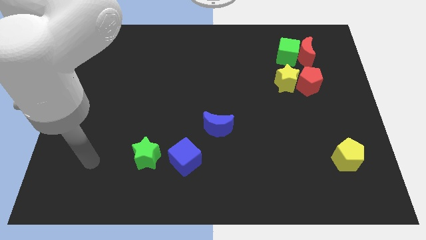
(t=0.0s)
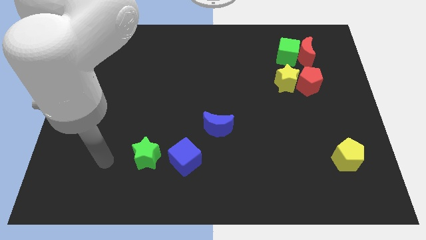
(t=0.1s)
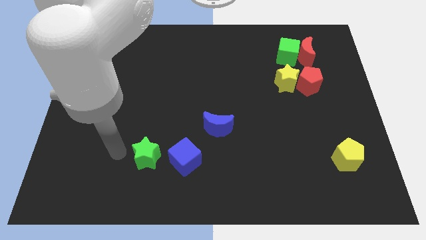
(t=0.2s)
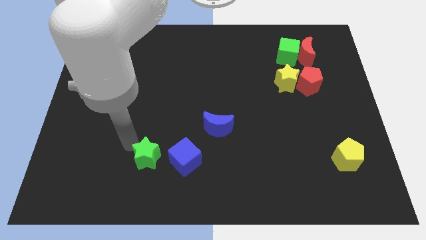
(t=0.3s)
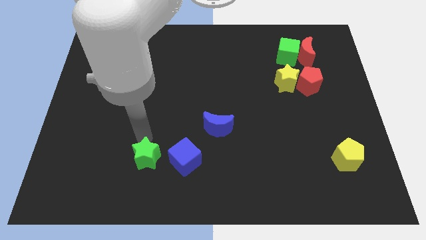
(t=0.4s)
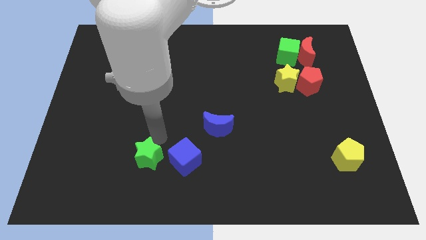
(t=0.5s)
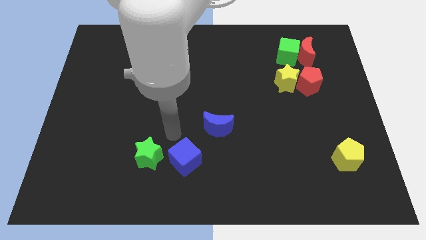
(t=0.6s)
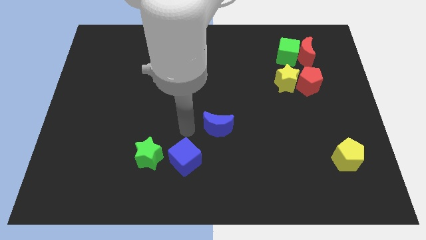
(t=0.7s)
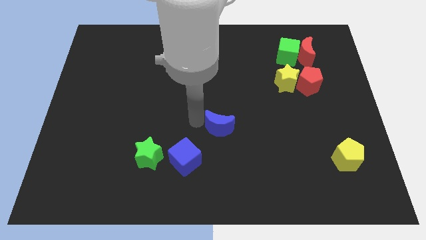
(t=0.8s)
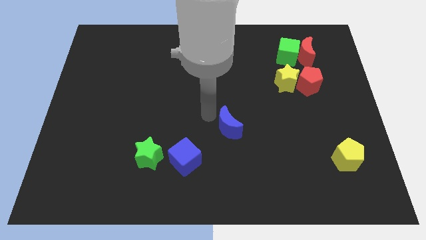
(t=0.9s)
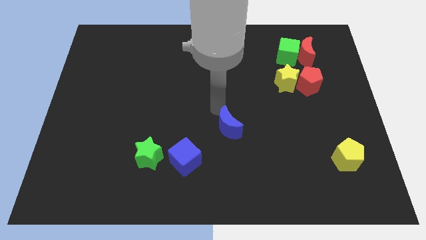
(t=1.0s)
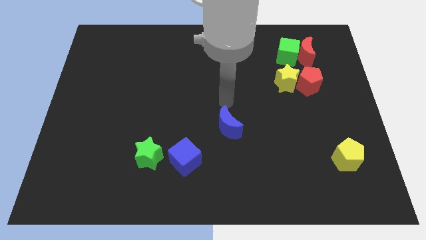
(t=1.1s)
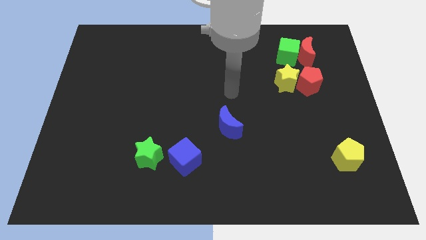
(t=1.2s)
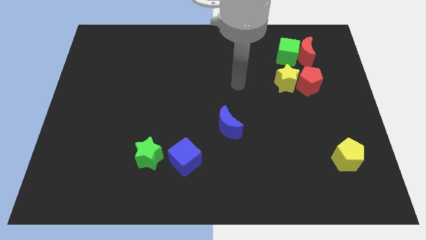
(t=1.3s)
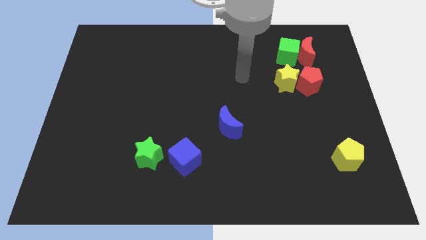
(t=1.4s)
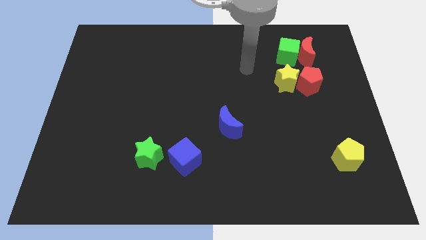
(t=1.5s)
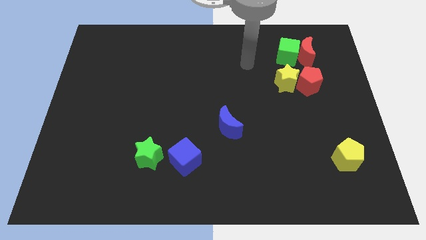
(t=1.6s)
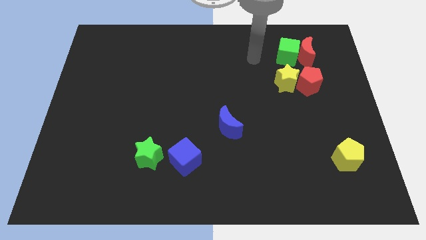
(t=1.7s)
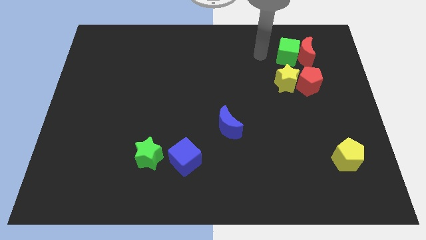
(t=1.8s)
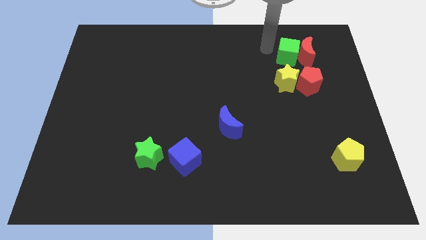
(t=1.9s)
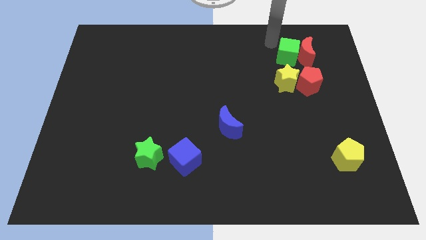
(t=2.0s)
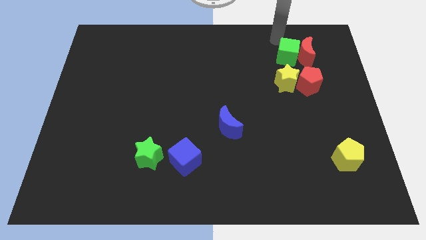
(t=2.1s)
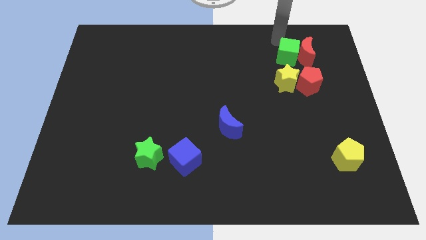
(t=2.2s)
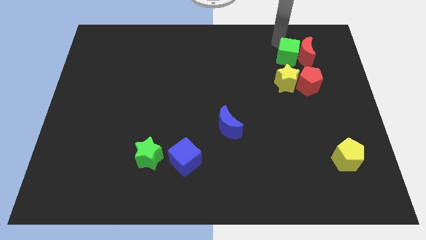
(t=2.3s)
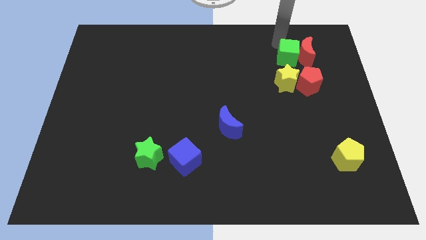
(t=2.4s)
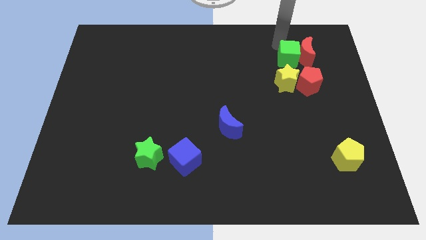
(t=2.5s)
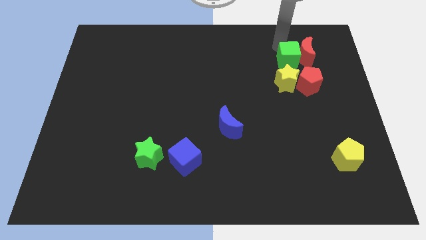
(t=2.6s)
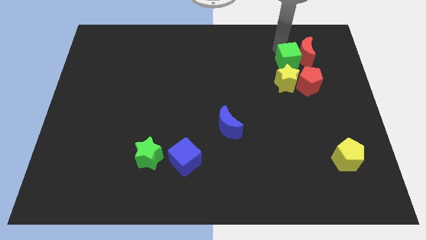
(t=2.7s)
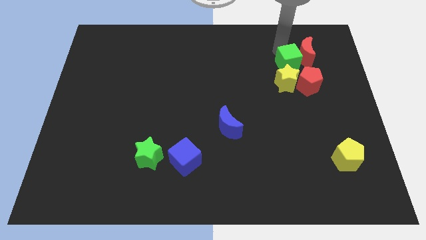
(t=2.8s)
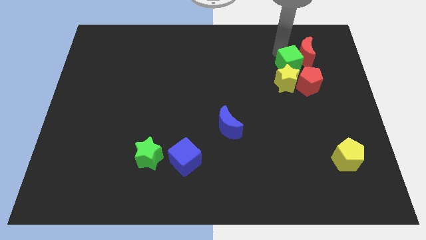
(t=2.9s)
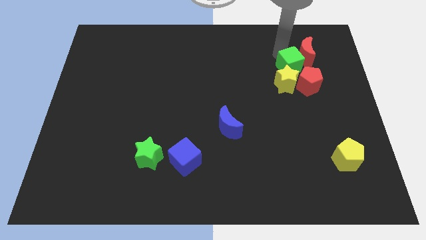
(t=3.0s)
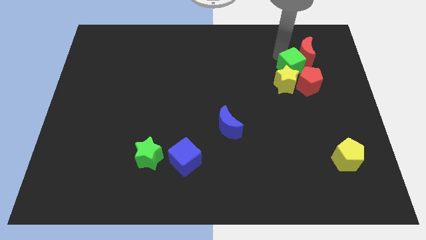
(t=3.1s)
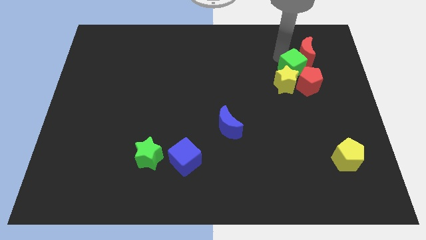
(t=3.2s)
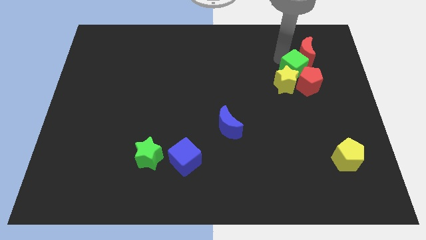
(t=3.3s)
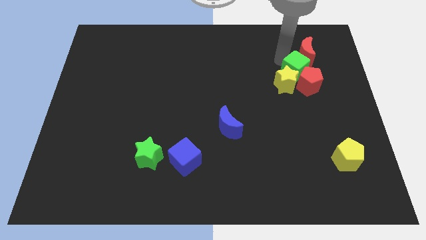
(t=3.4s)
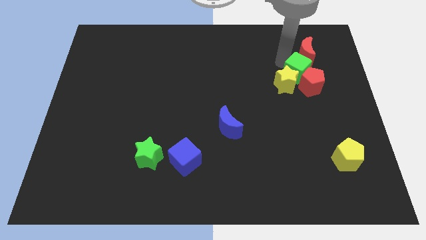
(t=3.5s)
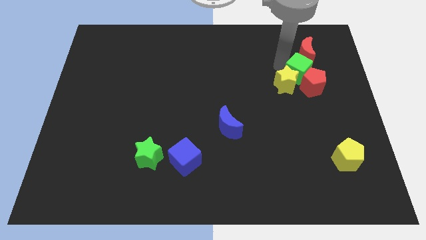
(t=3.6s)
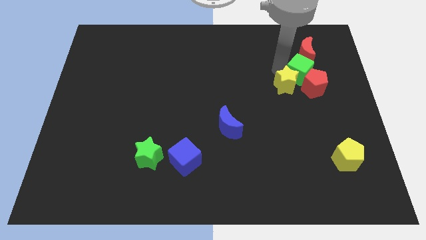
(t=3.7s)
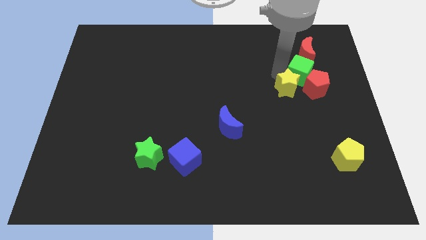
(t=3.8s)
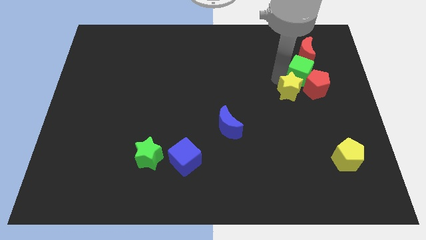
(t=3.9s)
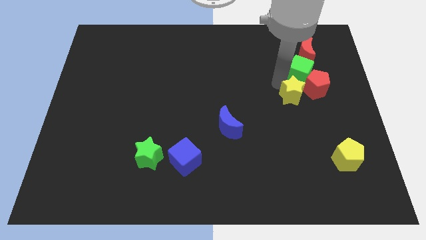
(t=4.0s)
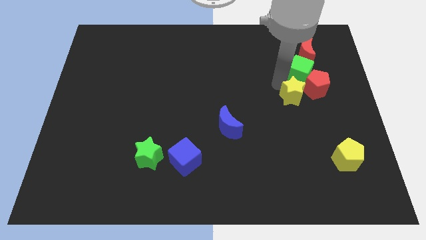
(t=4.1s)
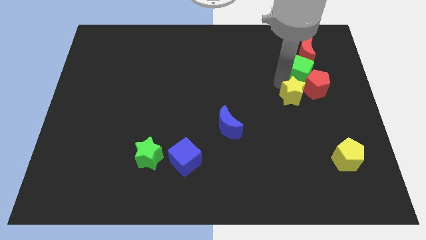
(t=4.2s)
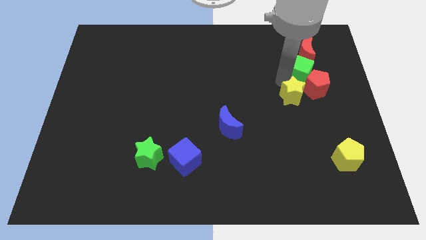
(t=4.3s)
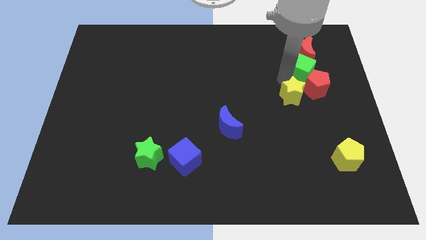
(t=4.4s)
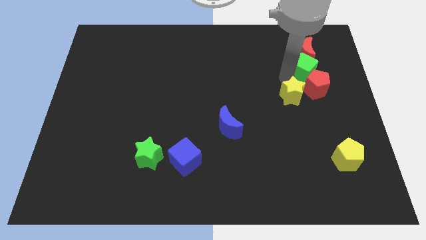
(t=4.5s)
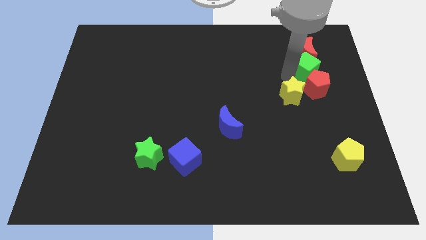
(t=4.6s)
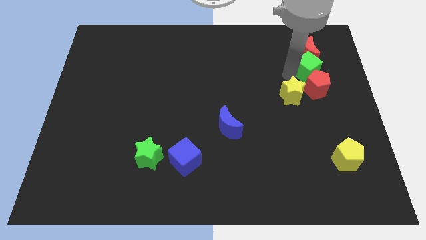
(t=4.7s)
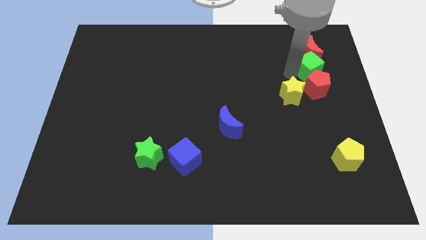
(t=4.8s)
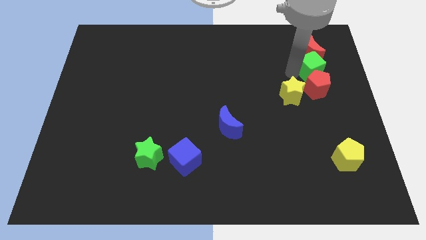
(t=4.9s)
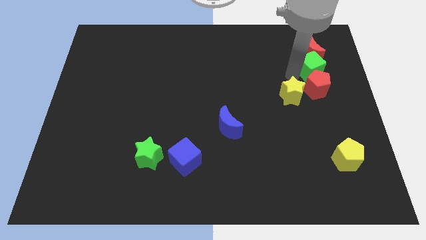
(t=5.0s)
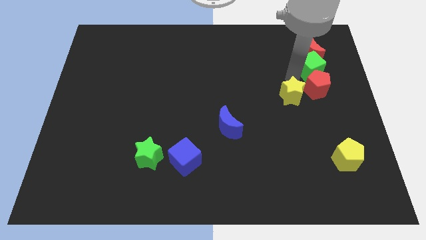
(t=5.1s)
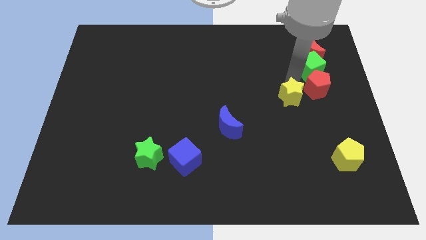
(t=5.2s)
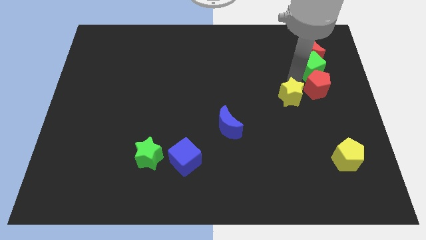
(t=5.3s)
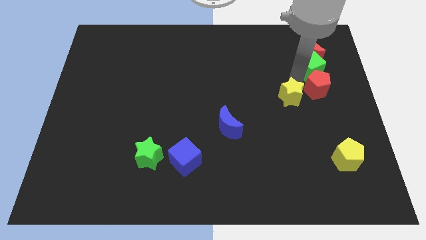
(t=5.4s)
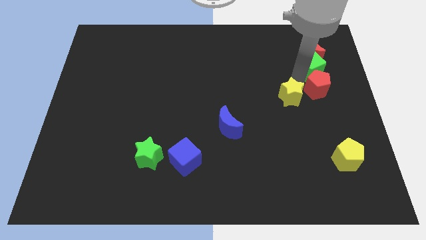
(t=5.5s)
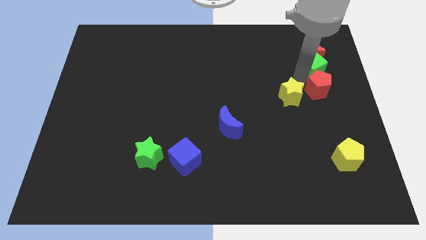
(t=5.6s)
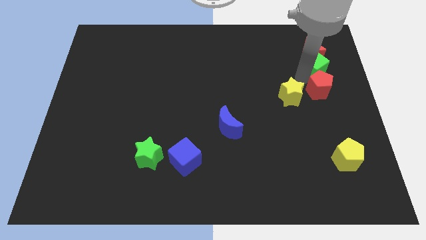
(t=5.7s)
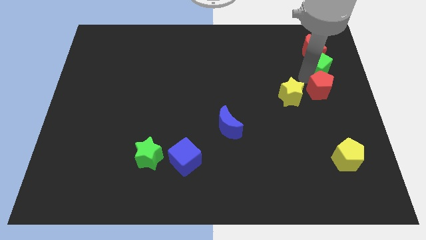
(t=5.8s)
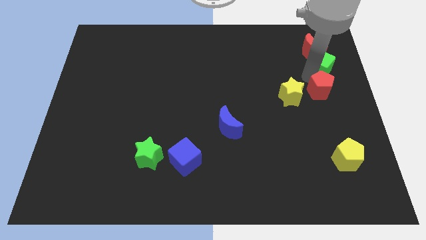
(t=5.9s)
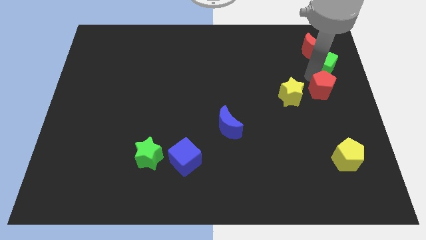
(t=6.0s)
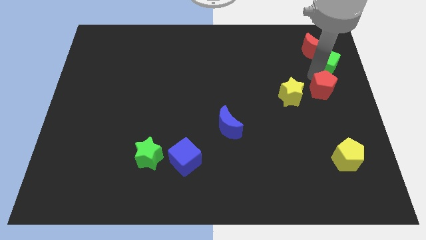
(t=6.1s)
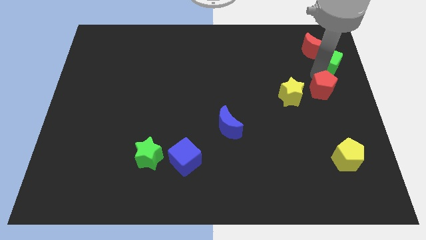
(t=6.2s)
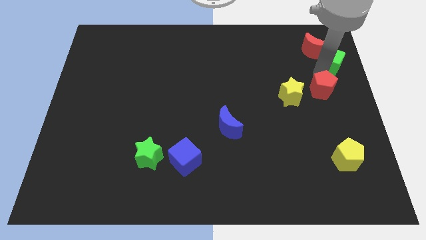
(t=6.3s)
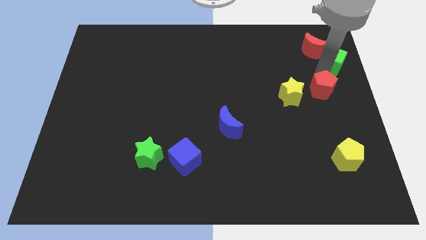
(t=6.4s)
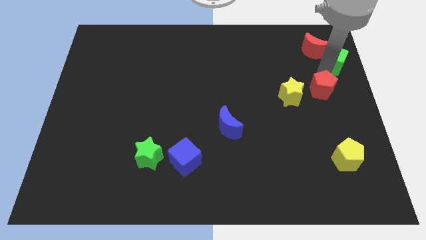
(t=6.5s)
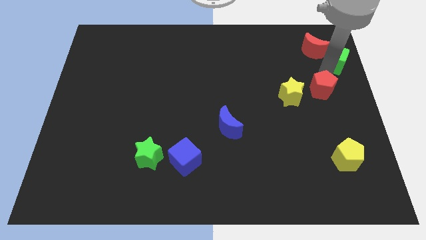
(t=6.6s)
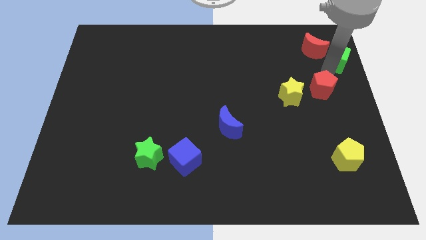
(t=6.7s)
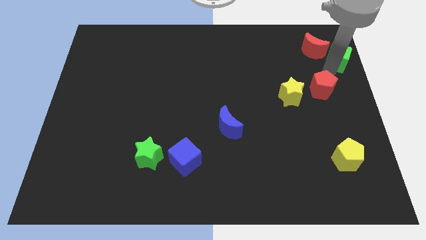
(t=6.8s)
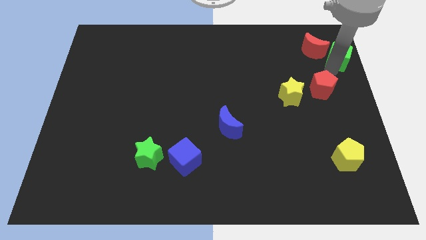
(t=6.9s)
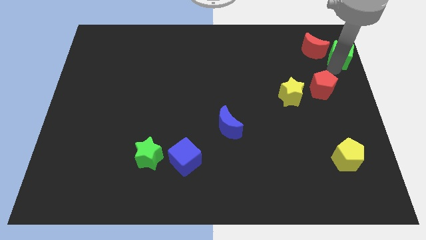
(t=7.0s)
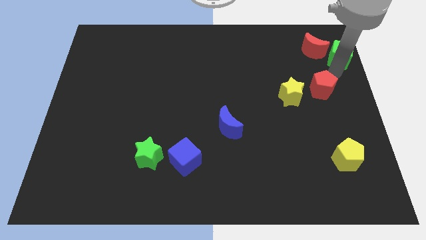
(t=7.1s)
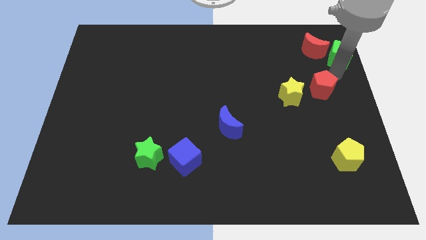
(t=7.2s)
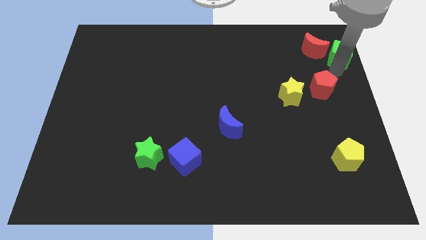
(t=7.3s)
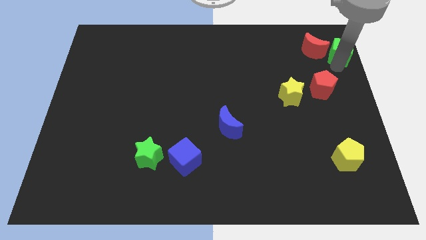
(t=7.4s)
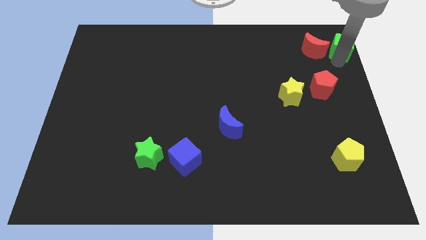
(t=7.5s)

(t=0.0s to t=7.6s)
put the green cube to the top right
